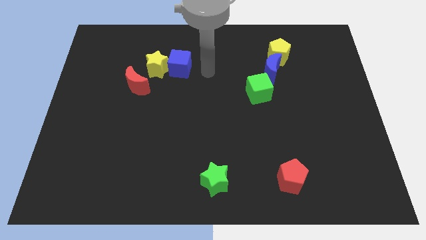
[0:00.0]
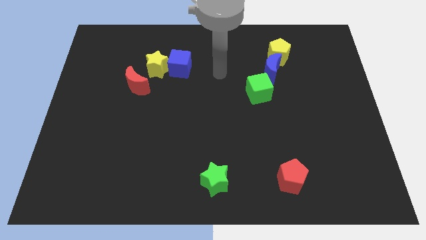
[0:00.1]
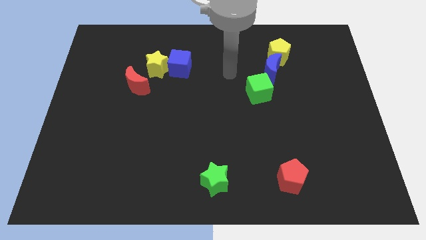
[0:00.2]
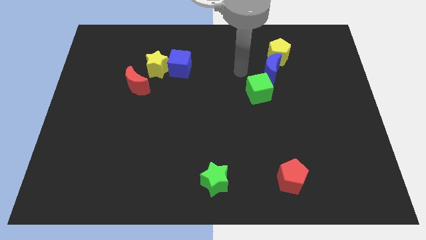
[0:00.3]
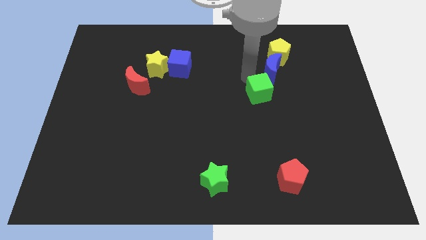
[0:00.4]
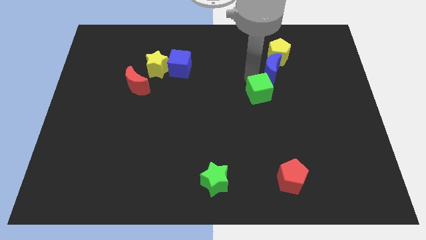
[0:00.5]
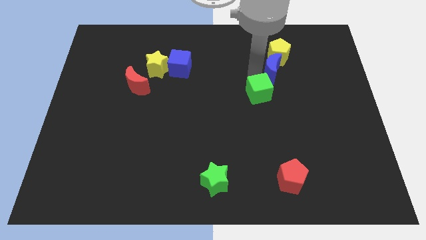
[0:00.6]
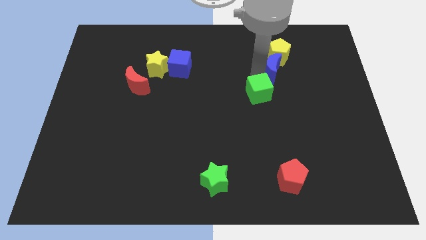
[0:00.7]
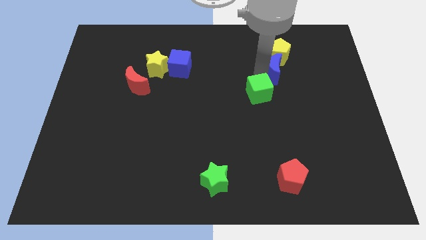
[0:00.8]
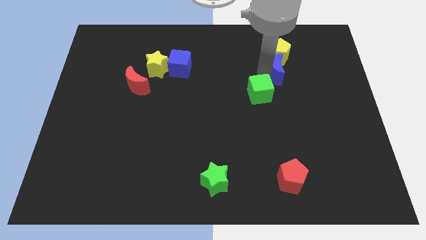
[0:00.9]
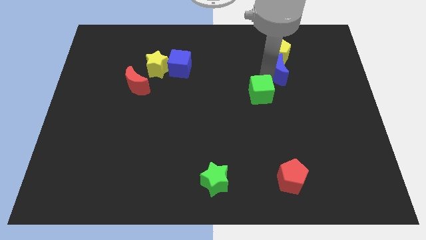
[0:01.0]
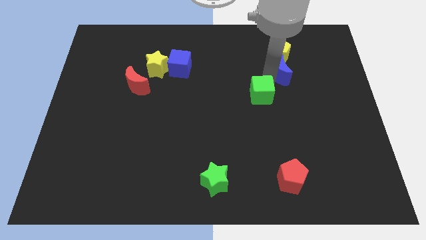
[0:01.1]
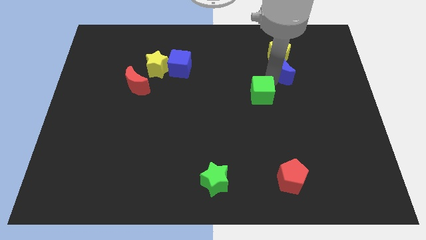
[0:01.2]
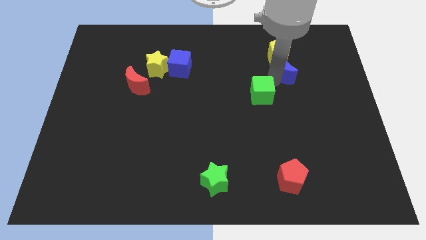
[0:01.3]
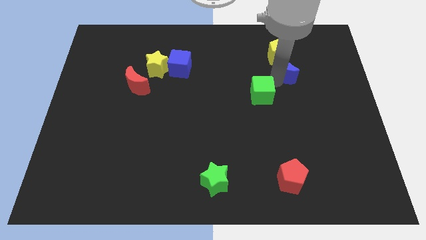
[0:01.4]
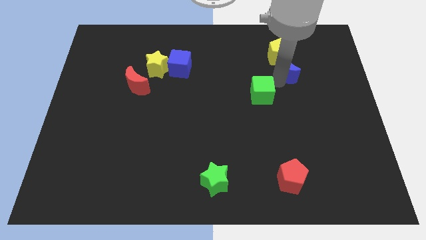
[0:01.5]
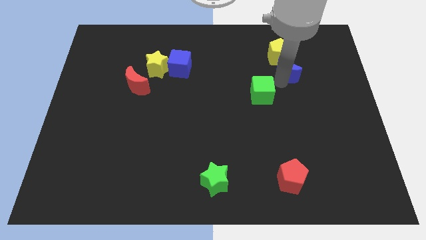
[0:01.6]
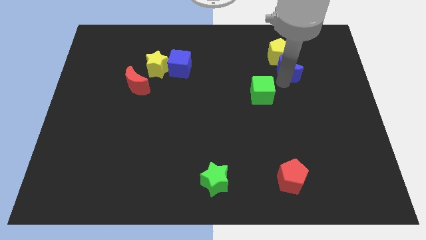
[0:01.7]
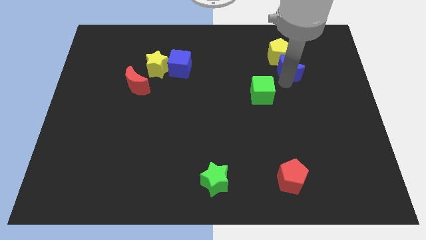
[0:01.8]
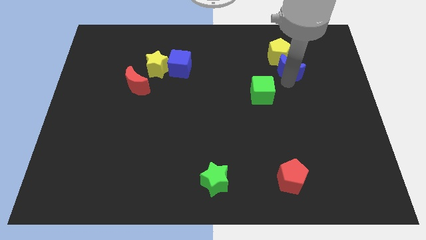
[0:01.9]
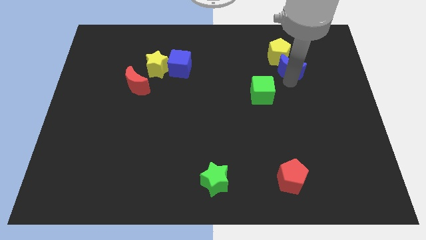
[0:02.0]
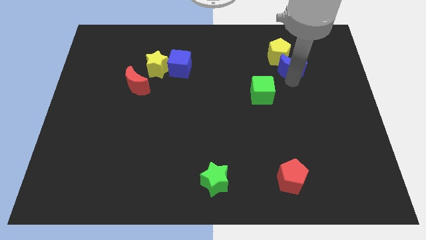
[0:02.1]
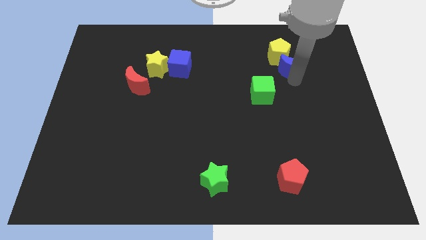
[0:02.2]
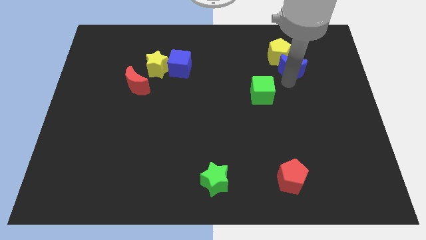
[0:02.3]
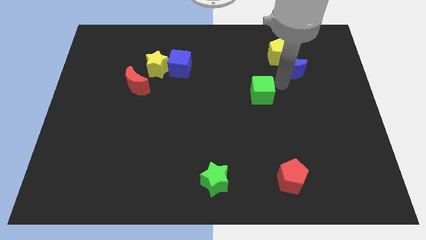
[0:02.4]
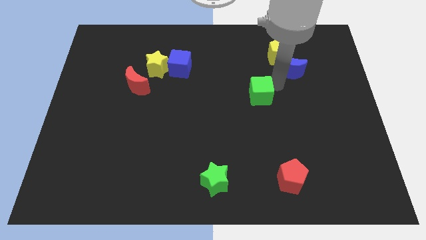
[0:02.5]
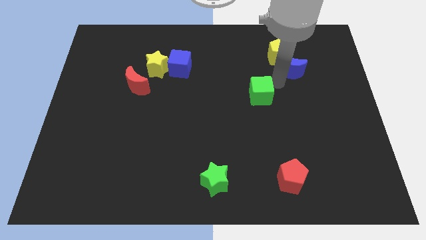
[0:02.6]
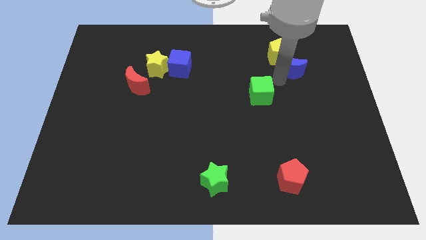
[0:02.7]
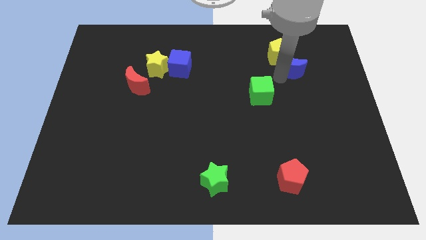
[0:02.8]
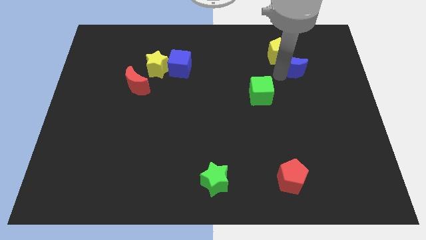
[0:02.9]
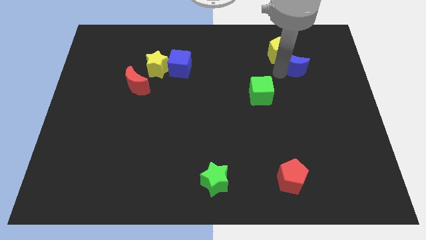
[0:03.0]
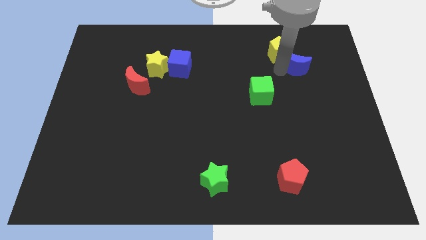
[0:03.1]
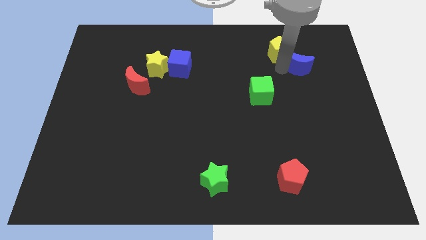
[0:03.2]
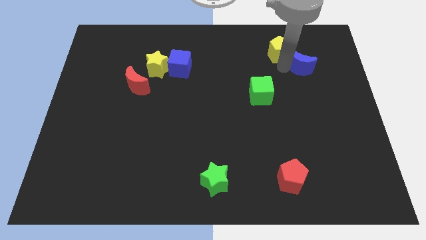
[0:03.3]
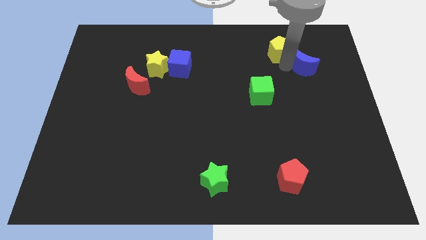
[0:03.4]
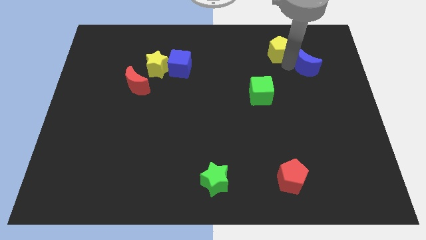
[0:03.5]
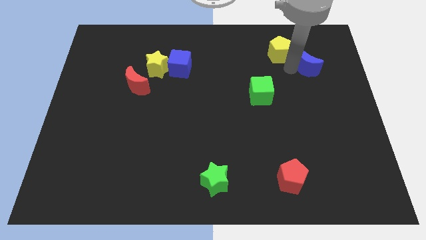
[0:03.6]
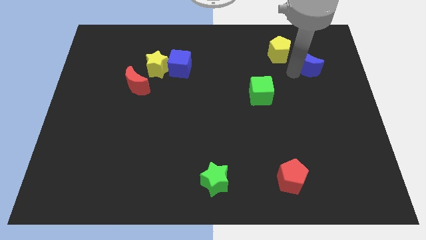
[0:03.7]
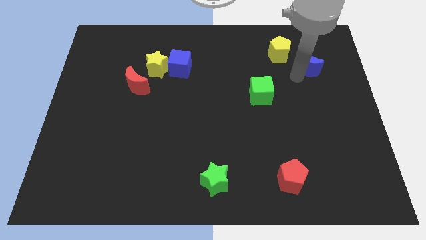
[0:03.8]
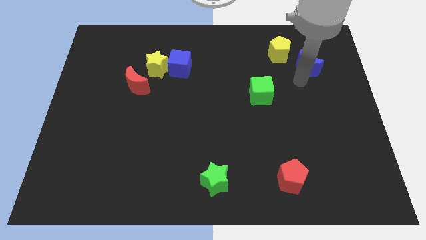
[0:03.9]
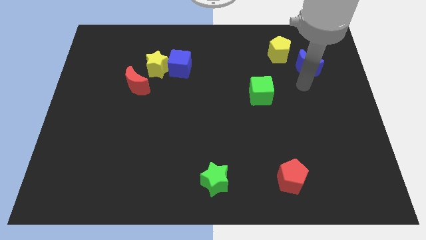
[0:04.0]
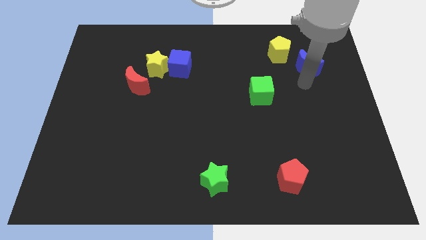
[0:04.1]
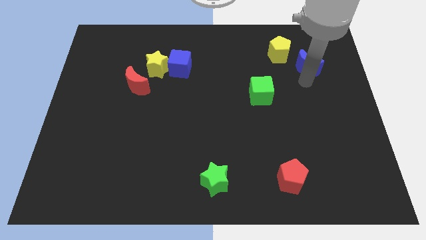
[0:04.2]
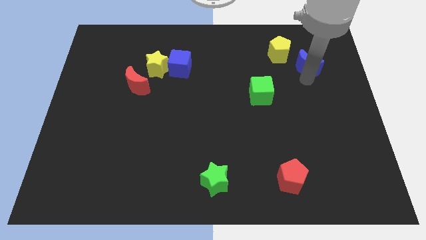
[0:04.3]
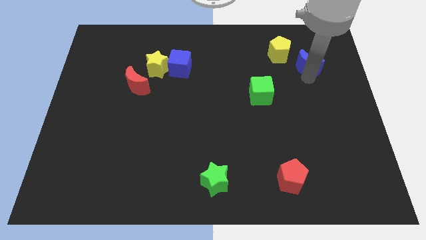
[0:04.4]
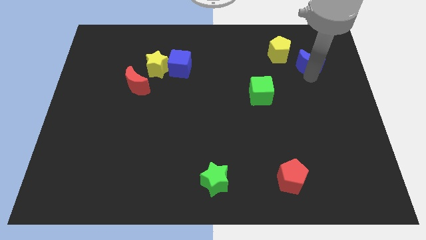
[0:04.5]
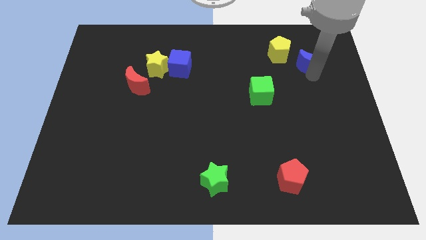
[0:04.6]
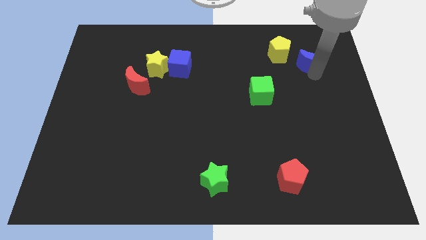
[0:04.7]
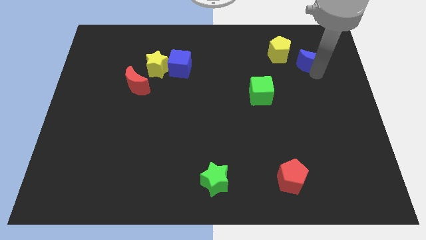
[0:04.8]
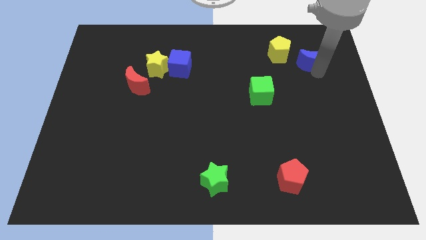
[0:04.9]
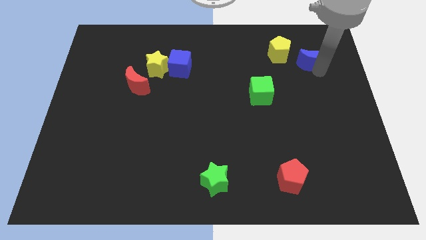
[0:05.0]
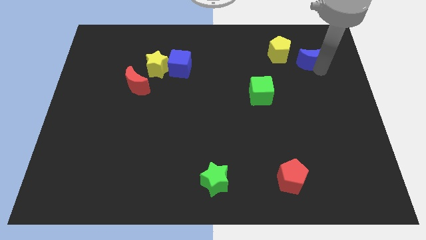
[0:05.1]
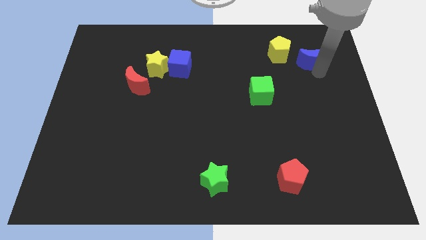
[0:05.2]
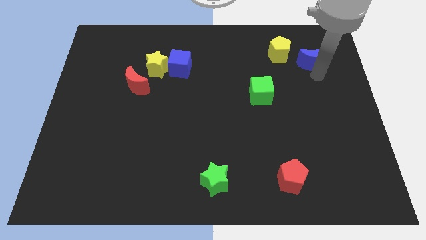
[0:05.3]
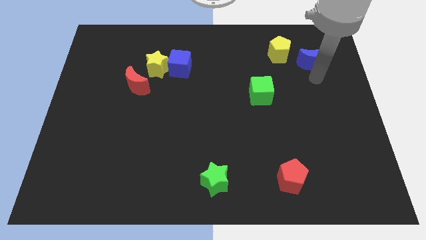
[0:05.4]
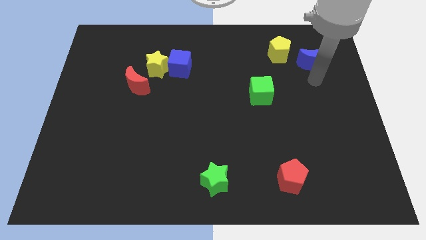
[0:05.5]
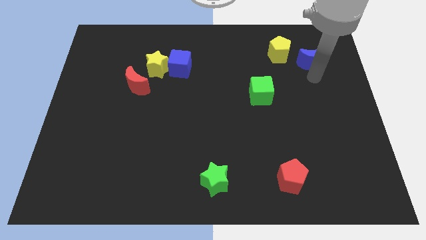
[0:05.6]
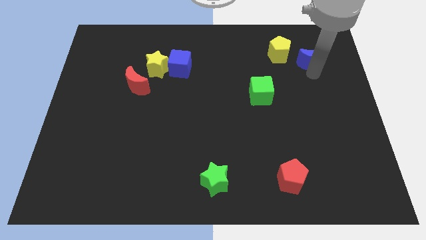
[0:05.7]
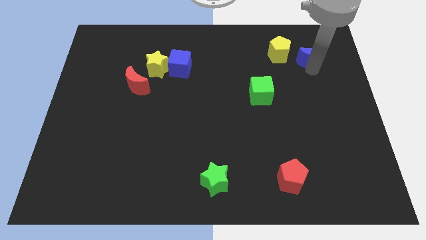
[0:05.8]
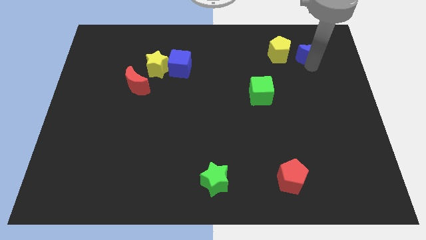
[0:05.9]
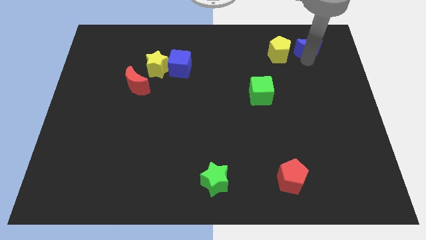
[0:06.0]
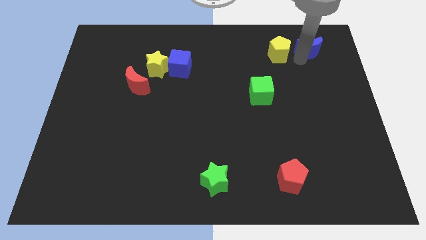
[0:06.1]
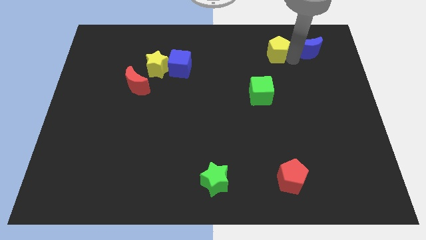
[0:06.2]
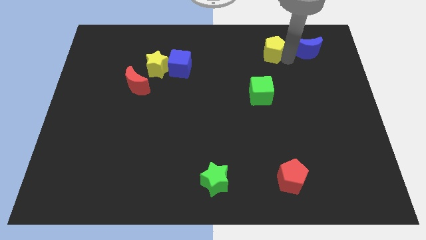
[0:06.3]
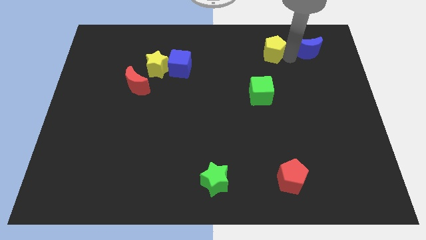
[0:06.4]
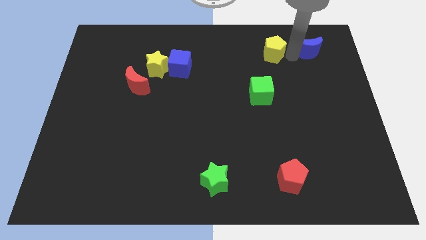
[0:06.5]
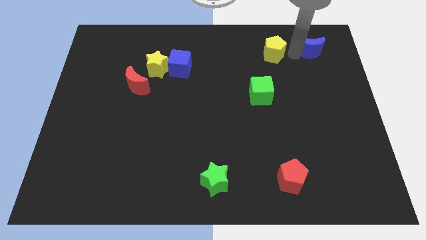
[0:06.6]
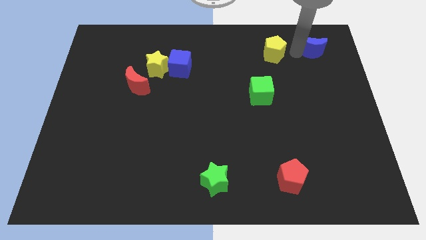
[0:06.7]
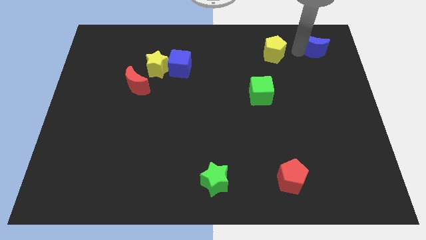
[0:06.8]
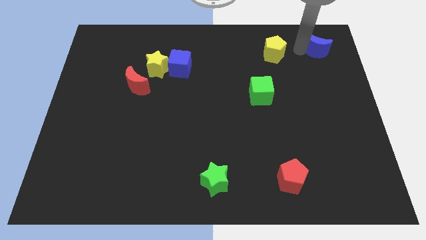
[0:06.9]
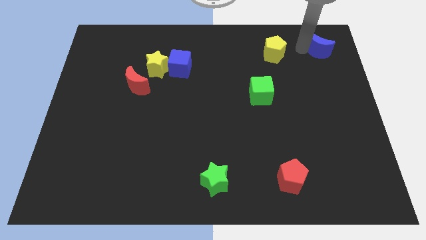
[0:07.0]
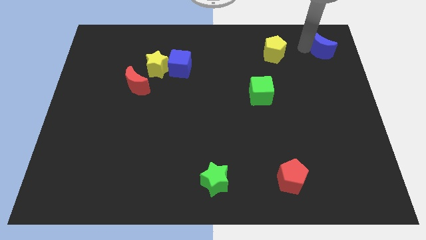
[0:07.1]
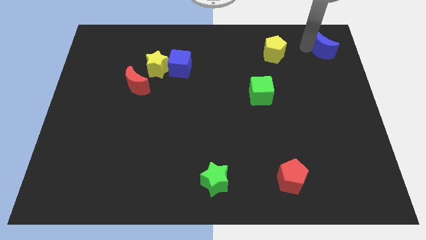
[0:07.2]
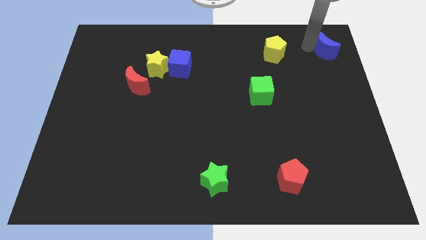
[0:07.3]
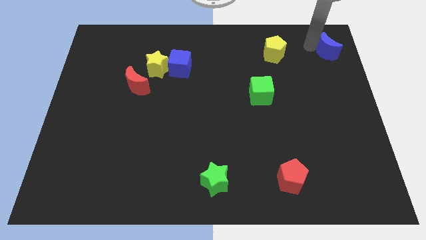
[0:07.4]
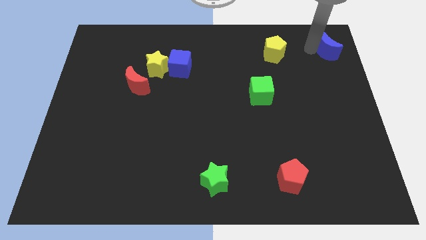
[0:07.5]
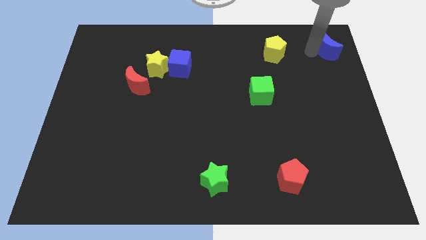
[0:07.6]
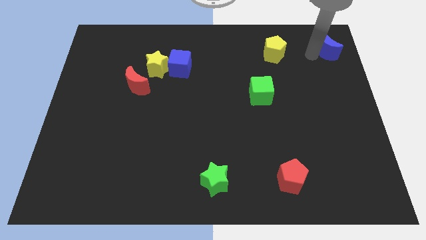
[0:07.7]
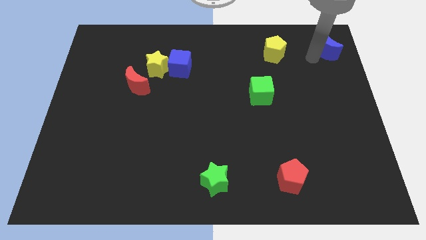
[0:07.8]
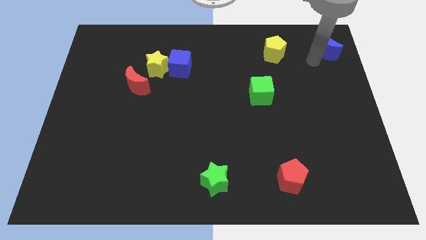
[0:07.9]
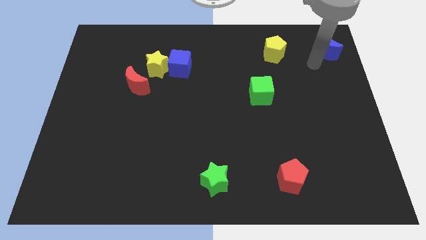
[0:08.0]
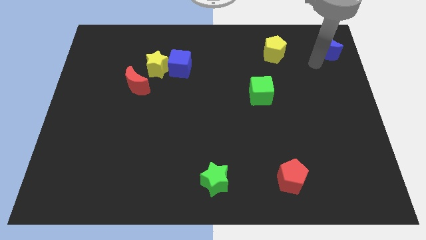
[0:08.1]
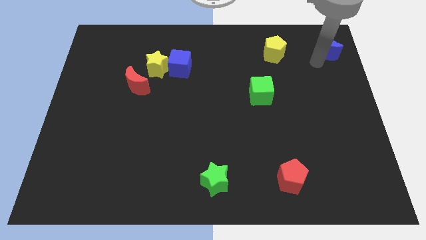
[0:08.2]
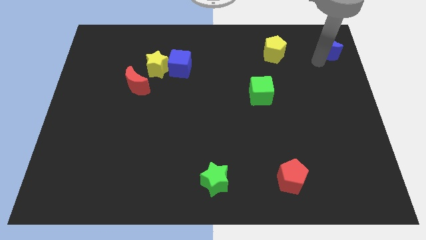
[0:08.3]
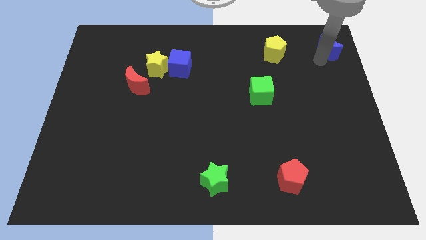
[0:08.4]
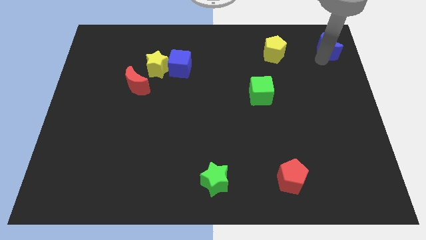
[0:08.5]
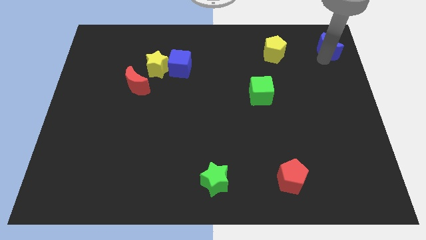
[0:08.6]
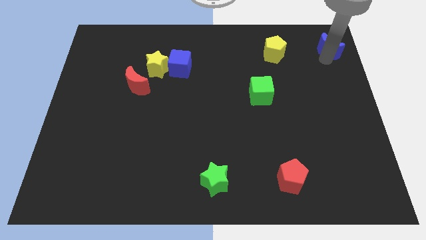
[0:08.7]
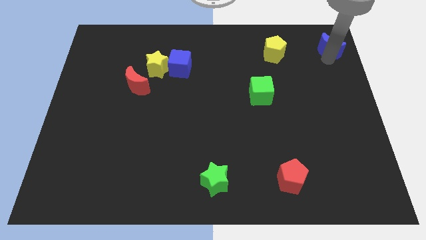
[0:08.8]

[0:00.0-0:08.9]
push the blue moon to the top right of the board
